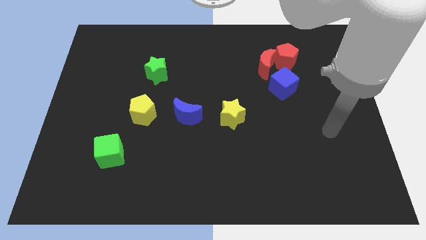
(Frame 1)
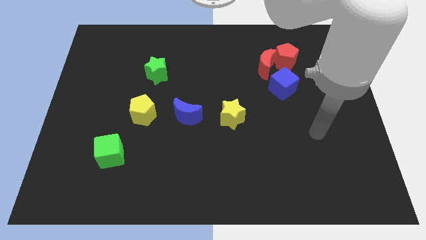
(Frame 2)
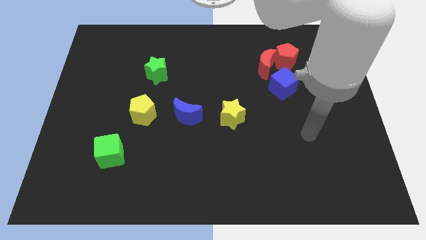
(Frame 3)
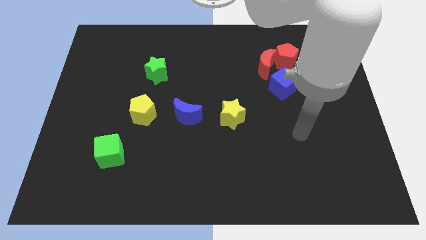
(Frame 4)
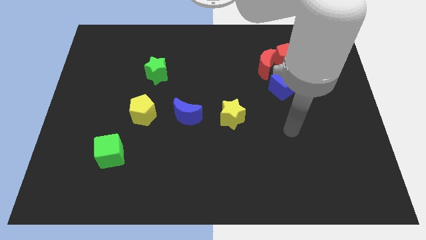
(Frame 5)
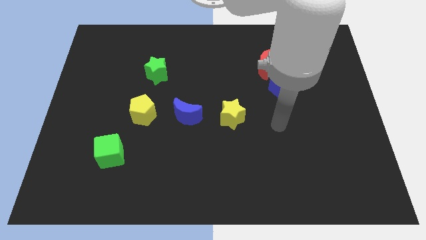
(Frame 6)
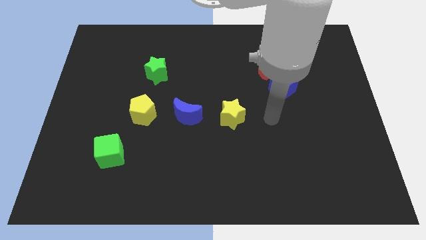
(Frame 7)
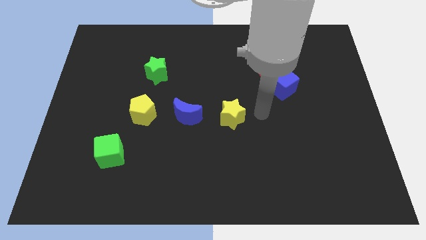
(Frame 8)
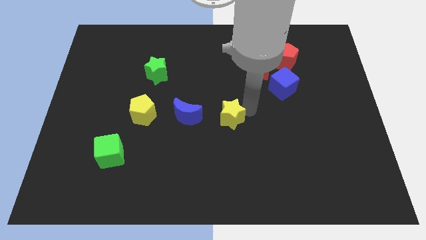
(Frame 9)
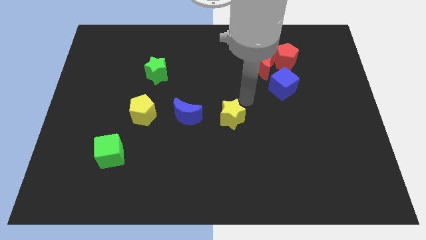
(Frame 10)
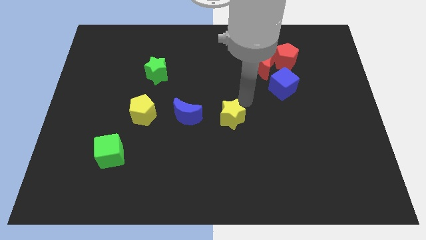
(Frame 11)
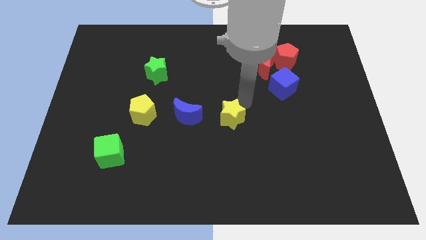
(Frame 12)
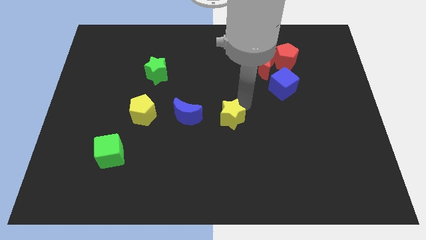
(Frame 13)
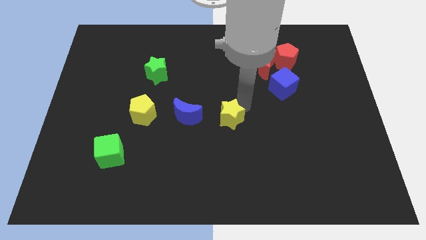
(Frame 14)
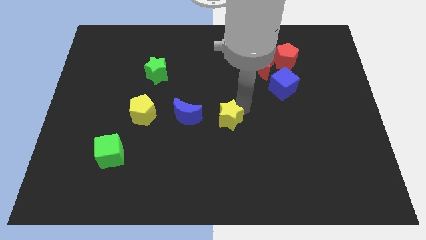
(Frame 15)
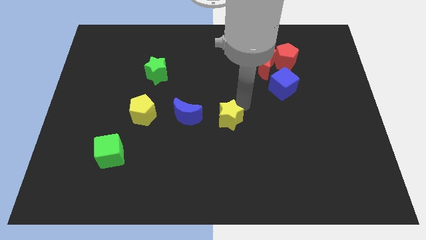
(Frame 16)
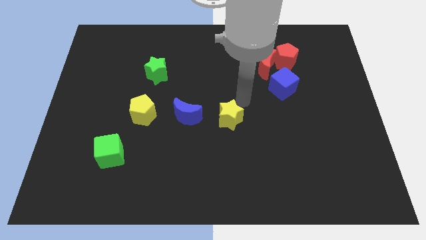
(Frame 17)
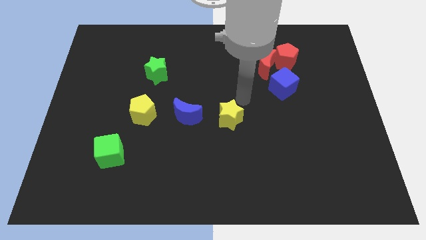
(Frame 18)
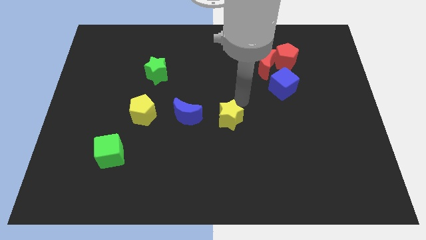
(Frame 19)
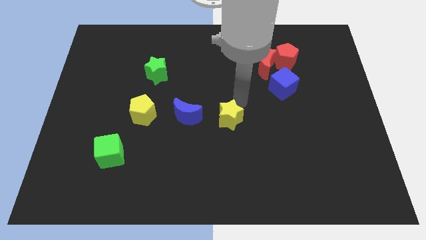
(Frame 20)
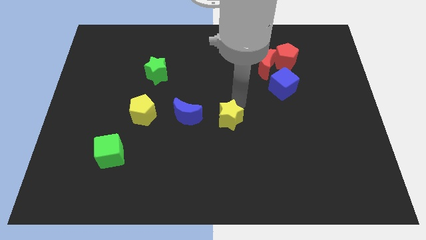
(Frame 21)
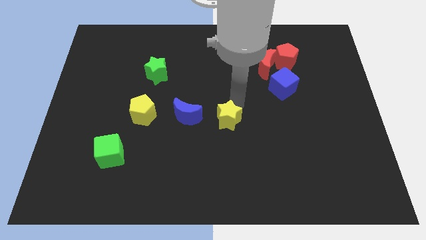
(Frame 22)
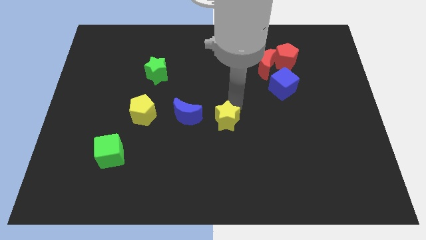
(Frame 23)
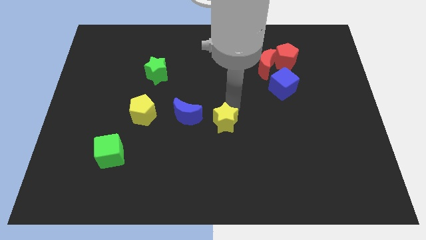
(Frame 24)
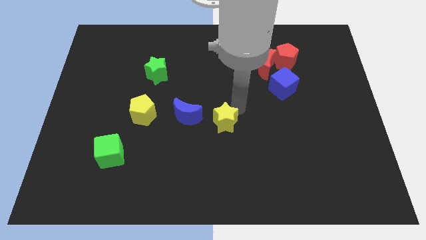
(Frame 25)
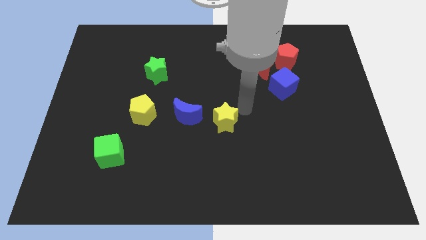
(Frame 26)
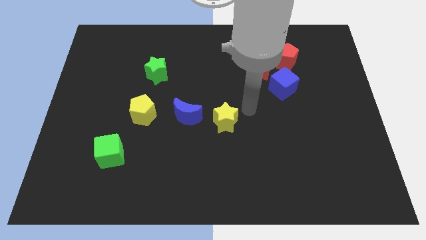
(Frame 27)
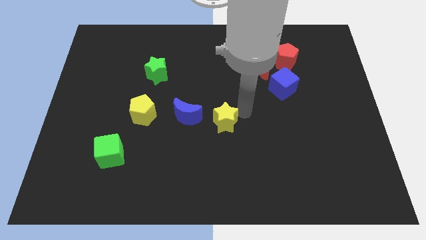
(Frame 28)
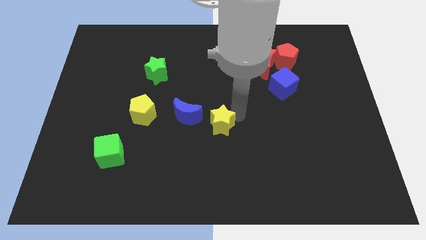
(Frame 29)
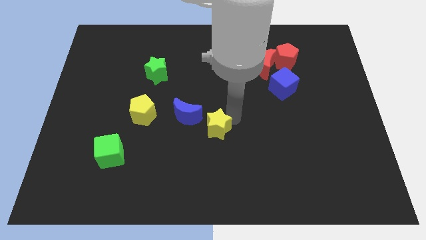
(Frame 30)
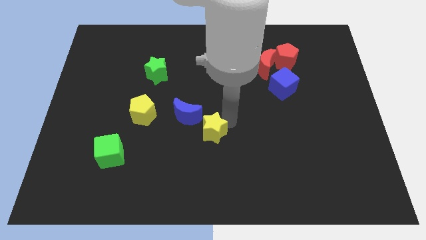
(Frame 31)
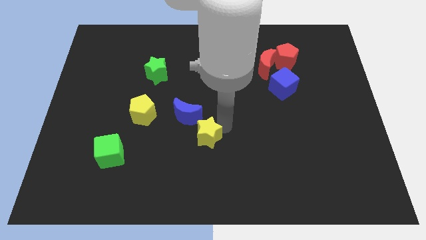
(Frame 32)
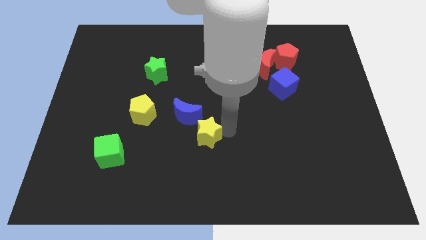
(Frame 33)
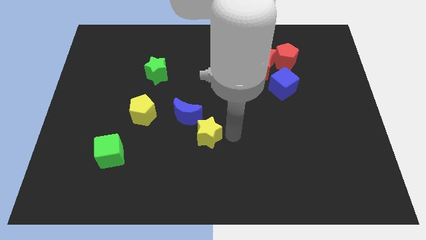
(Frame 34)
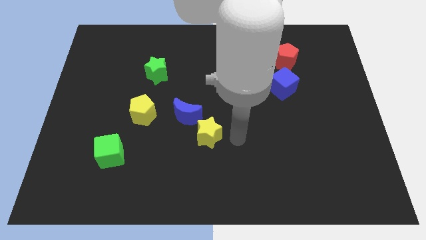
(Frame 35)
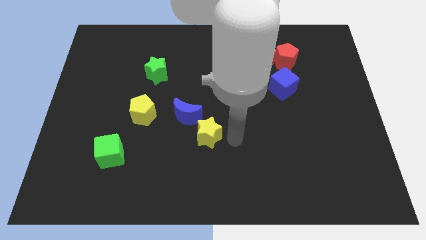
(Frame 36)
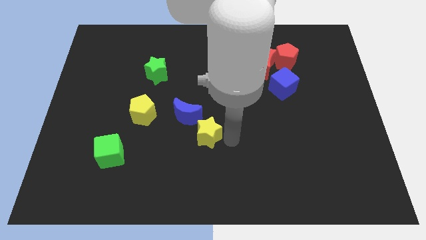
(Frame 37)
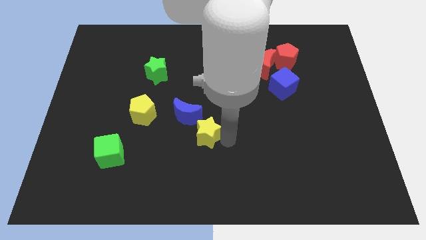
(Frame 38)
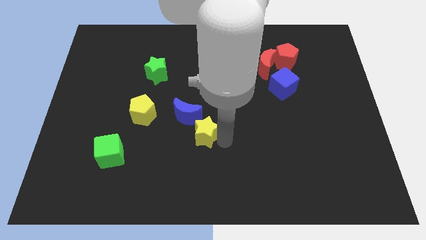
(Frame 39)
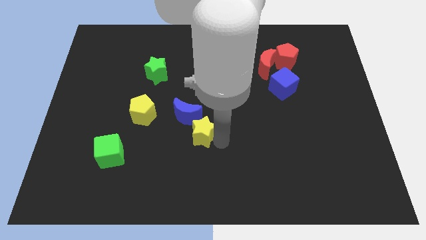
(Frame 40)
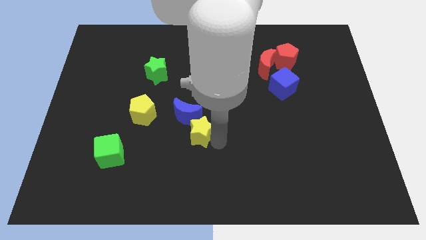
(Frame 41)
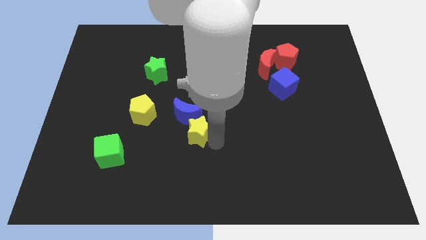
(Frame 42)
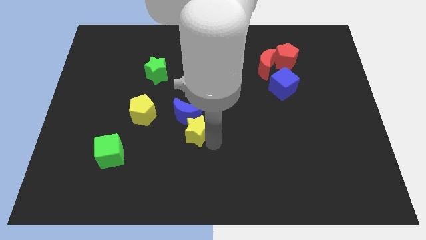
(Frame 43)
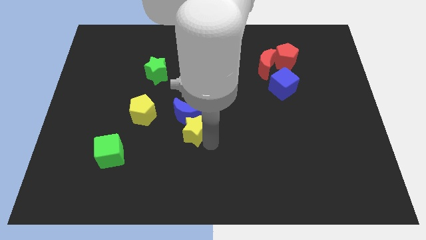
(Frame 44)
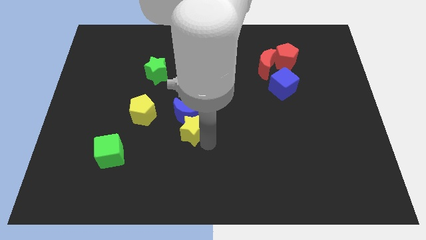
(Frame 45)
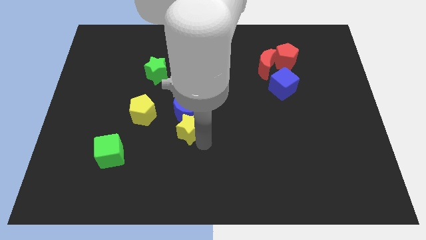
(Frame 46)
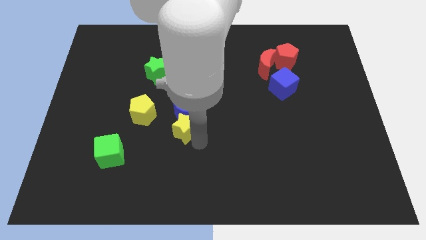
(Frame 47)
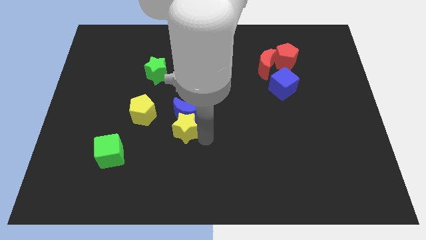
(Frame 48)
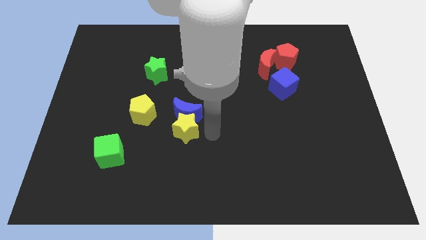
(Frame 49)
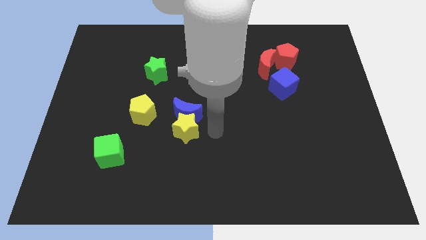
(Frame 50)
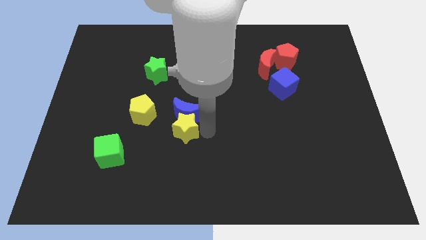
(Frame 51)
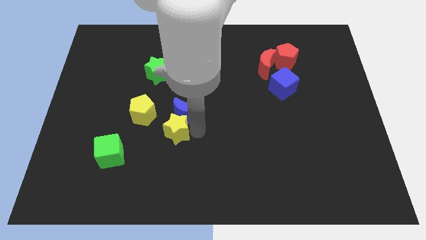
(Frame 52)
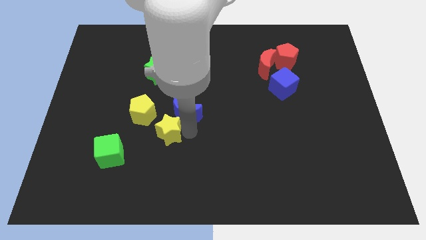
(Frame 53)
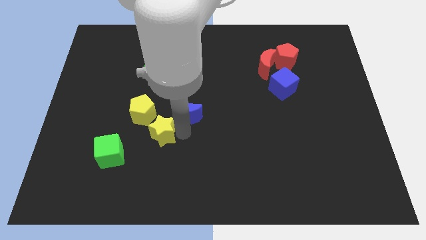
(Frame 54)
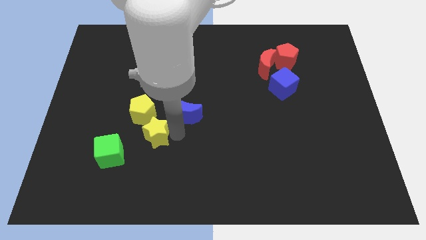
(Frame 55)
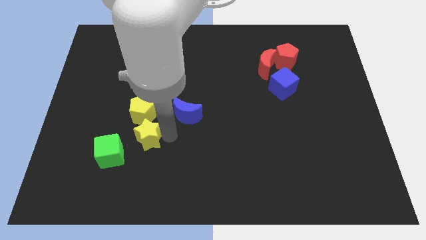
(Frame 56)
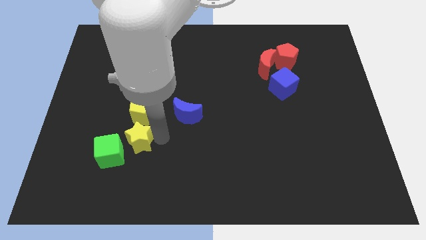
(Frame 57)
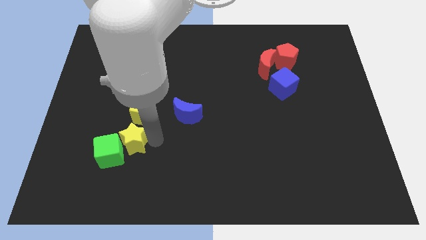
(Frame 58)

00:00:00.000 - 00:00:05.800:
push the yellow star to the left

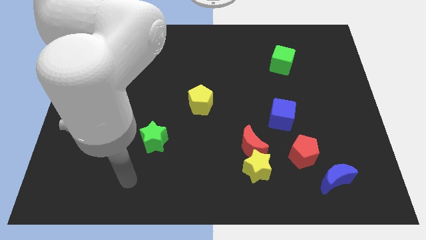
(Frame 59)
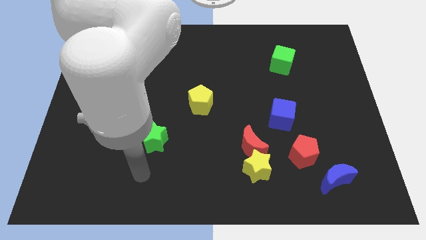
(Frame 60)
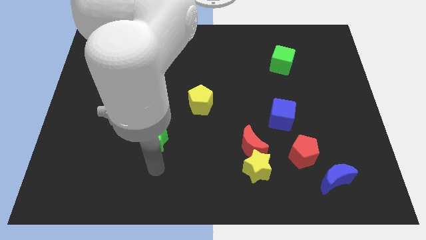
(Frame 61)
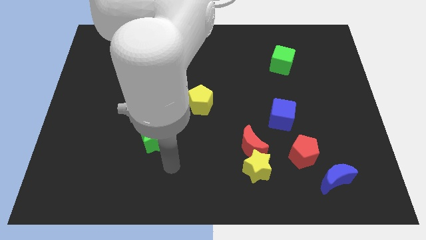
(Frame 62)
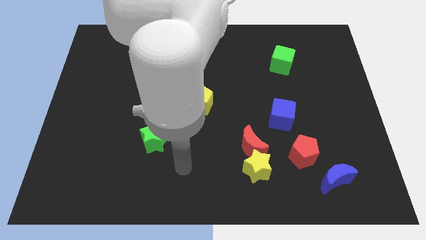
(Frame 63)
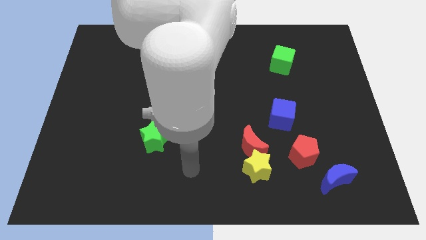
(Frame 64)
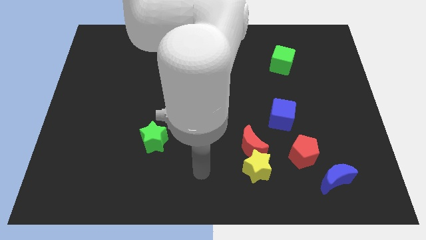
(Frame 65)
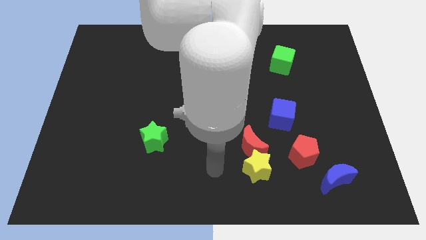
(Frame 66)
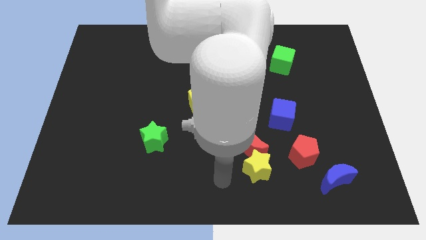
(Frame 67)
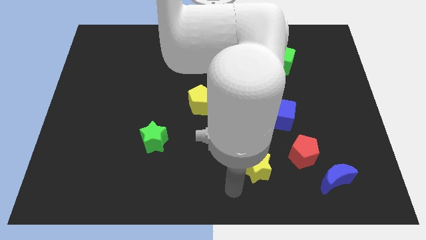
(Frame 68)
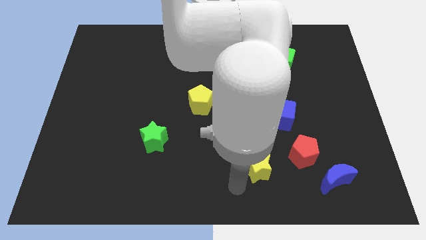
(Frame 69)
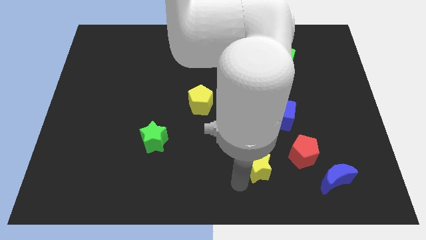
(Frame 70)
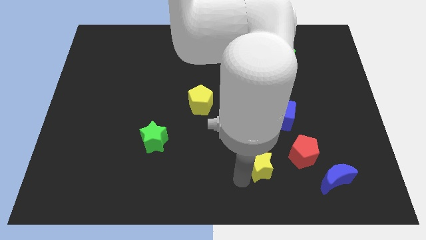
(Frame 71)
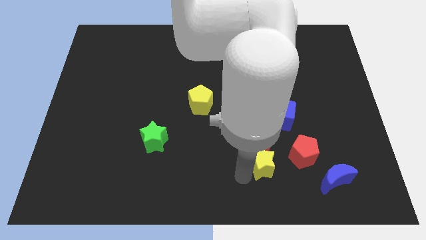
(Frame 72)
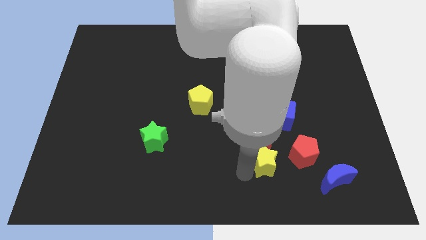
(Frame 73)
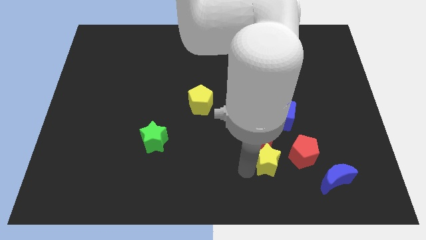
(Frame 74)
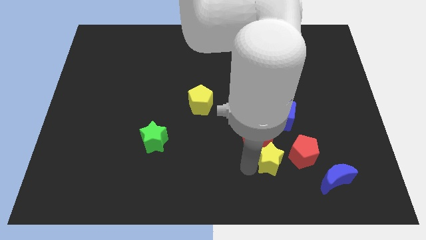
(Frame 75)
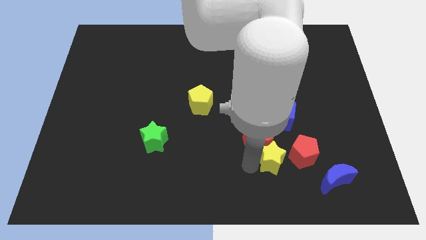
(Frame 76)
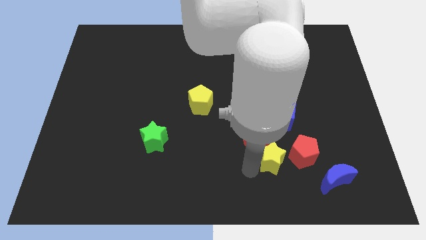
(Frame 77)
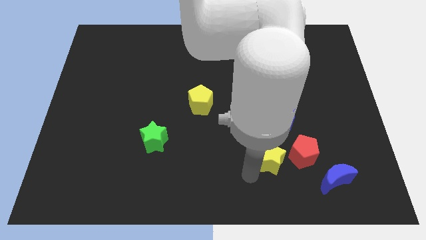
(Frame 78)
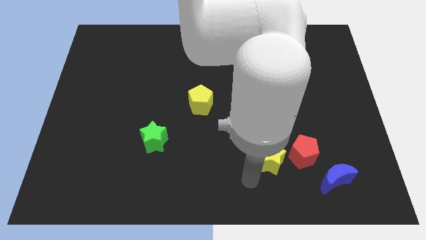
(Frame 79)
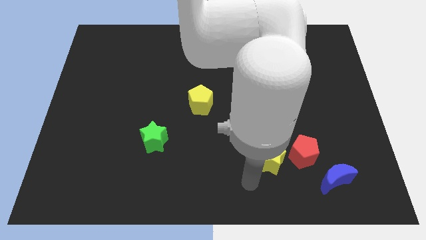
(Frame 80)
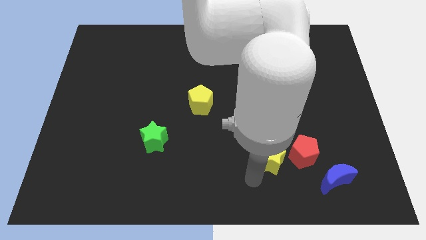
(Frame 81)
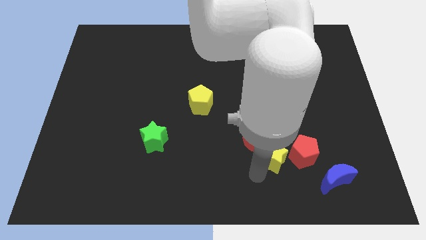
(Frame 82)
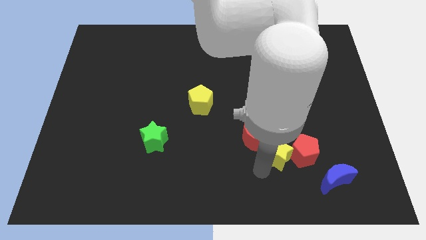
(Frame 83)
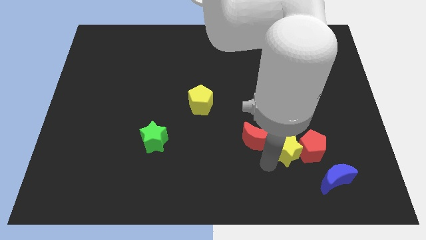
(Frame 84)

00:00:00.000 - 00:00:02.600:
move the yellow star a little bit up and to the right
